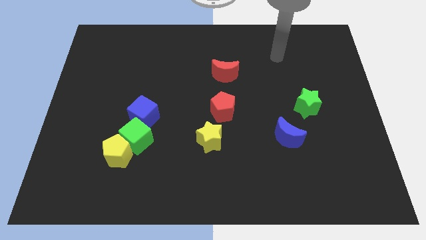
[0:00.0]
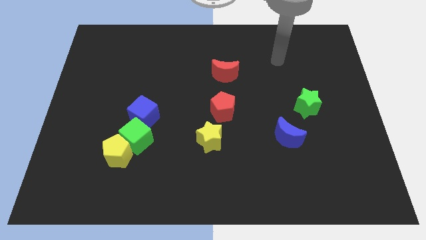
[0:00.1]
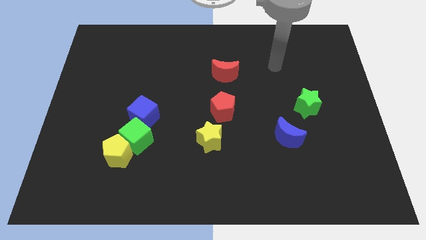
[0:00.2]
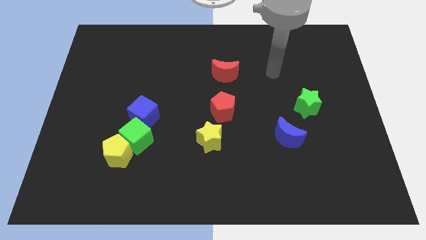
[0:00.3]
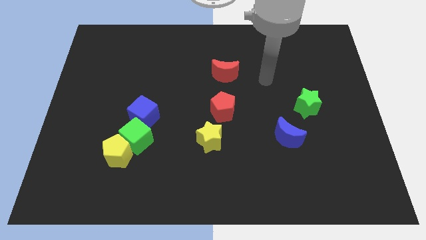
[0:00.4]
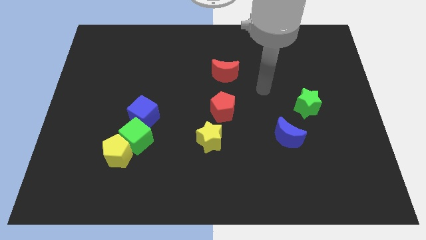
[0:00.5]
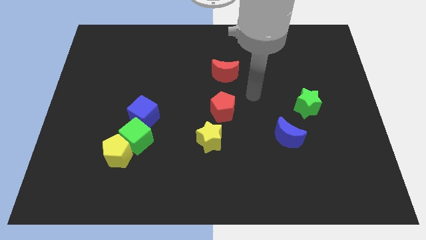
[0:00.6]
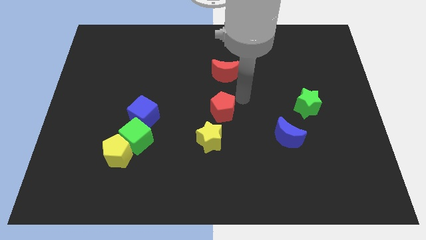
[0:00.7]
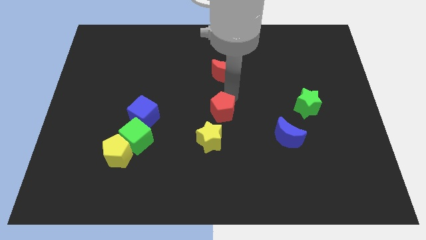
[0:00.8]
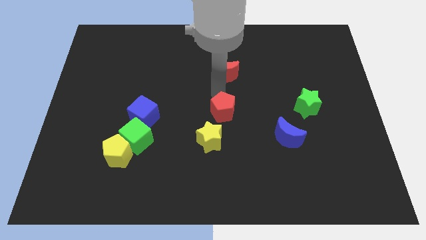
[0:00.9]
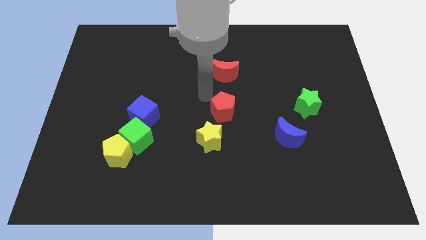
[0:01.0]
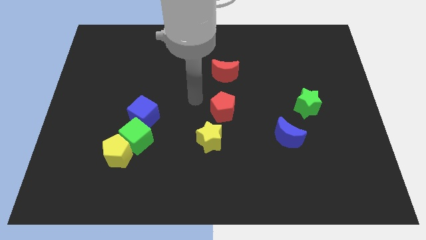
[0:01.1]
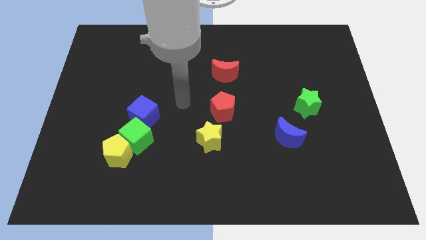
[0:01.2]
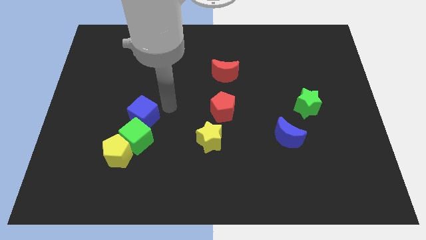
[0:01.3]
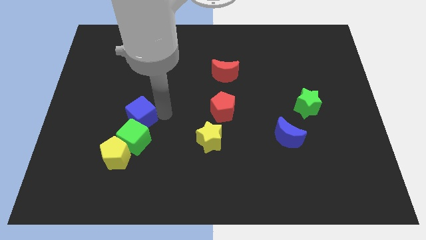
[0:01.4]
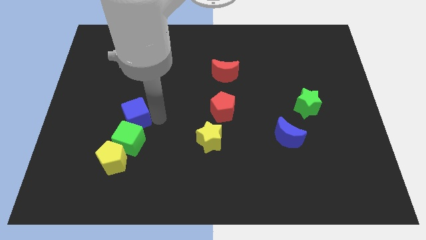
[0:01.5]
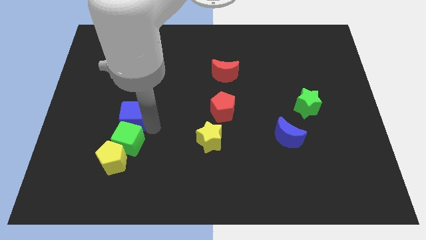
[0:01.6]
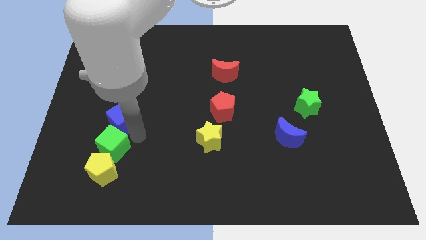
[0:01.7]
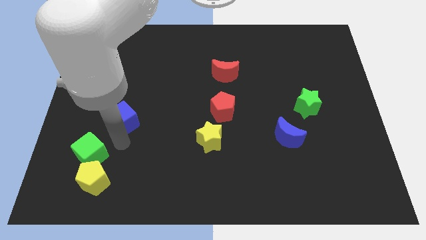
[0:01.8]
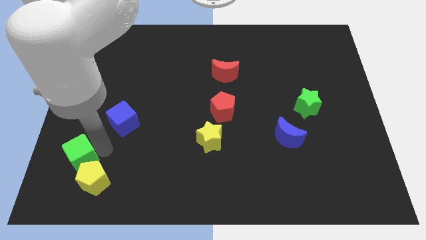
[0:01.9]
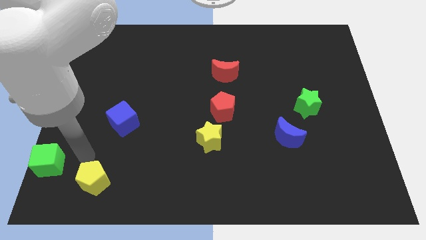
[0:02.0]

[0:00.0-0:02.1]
move the yellow pentagon away from the green cube

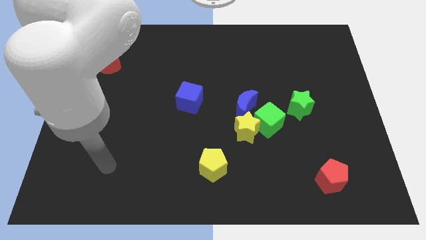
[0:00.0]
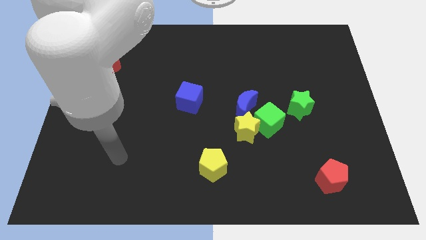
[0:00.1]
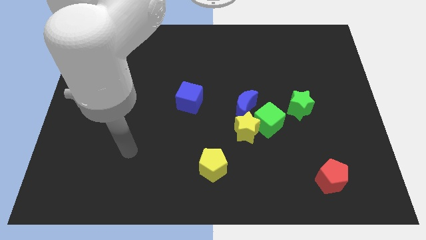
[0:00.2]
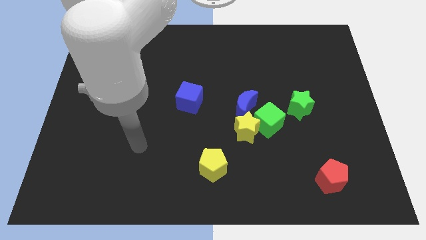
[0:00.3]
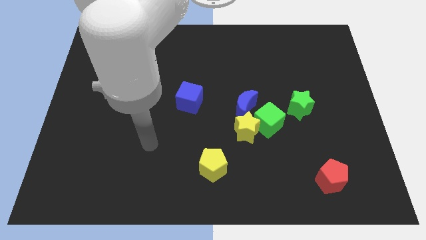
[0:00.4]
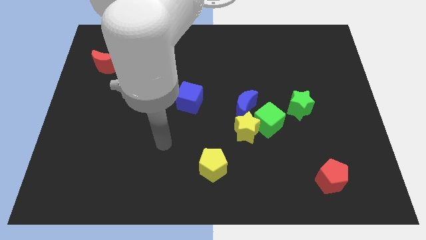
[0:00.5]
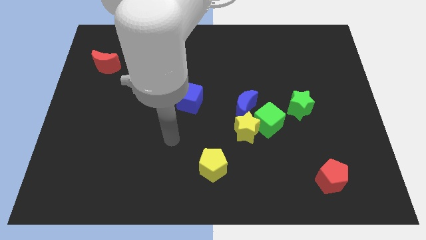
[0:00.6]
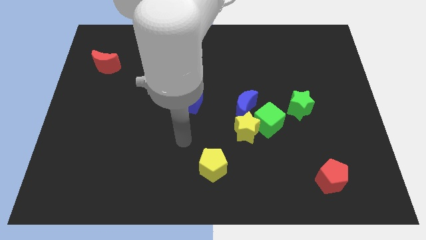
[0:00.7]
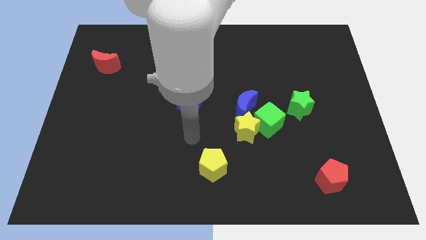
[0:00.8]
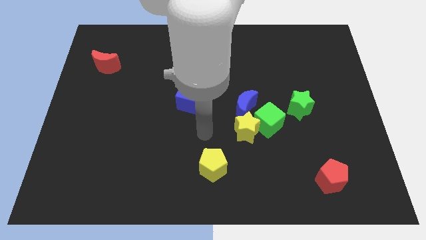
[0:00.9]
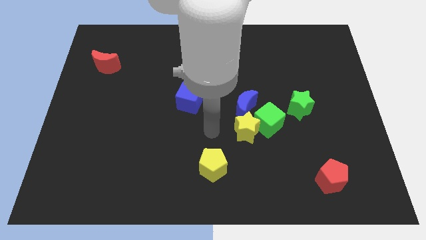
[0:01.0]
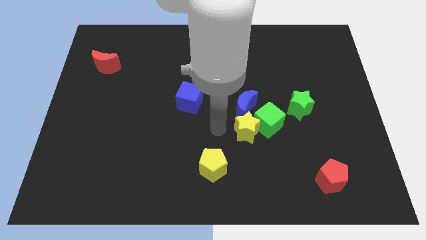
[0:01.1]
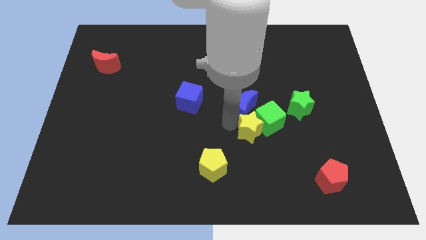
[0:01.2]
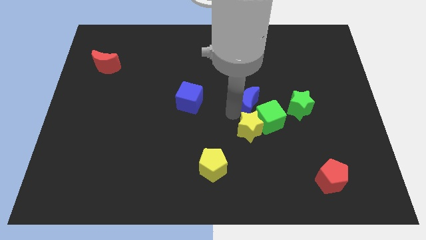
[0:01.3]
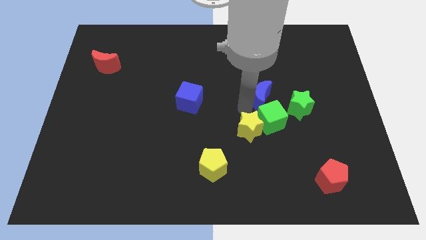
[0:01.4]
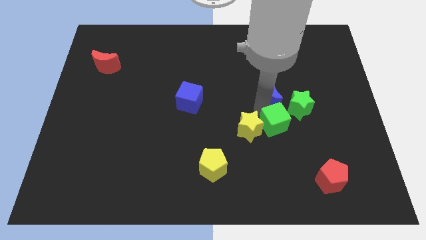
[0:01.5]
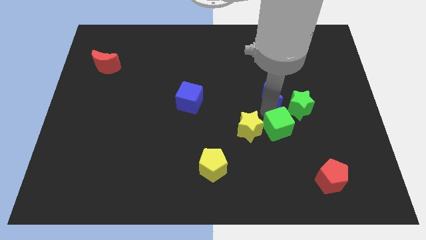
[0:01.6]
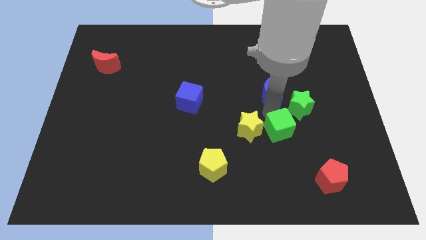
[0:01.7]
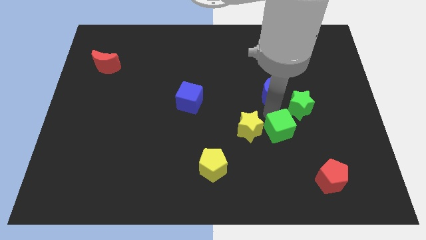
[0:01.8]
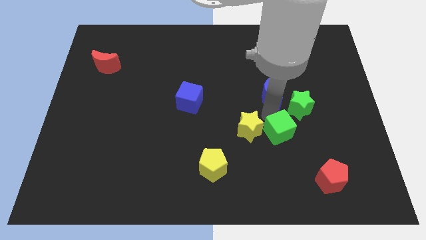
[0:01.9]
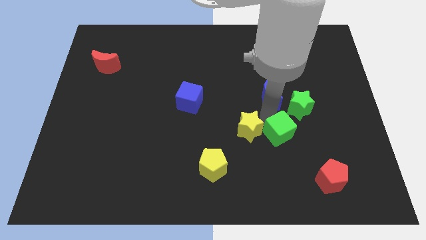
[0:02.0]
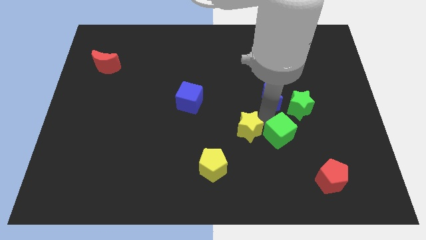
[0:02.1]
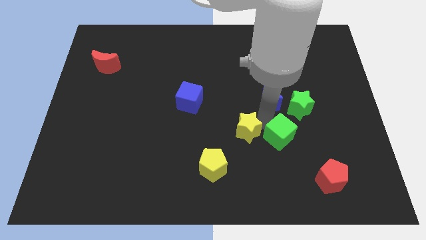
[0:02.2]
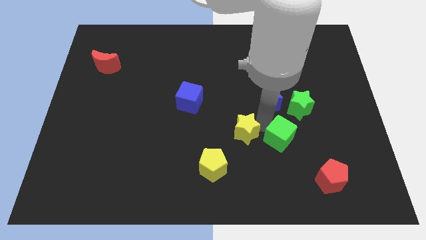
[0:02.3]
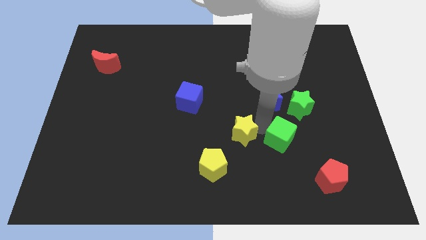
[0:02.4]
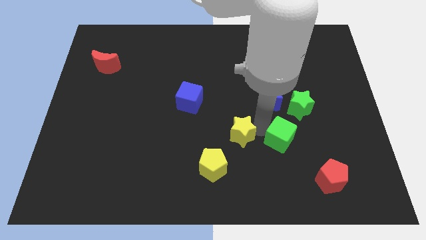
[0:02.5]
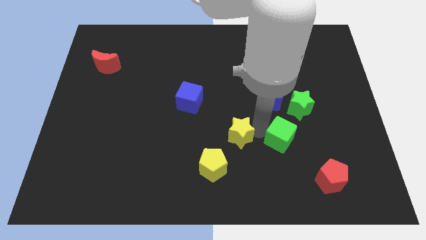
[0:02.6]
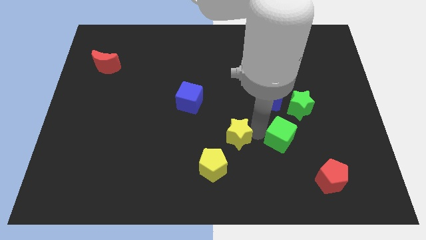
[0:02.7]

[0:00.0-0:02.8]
pull the yellow star apart from the green cube and blue moon

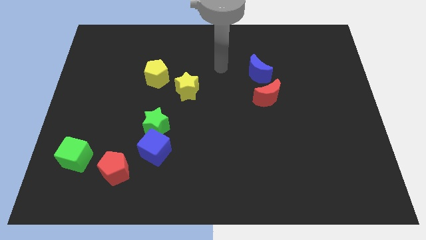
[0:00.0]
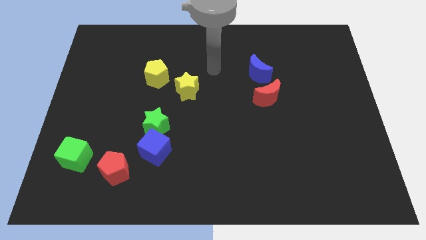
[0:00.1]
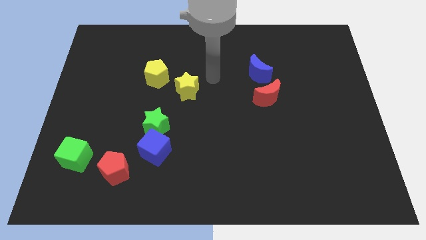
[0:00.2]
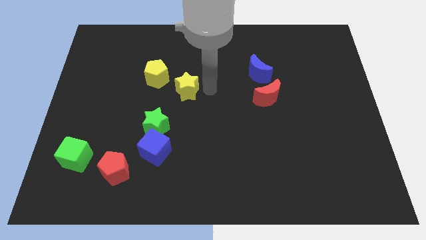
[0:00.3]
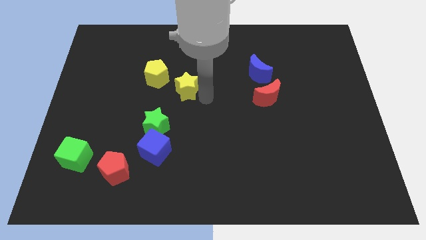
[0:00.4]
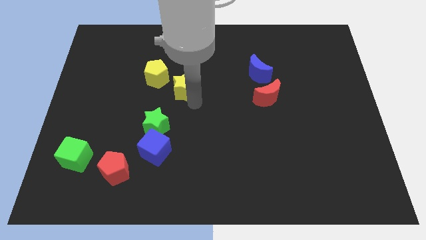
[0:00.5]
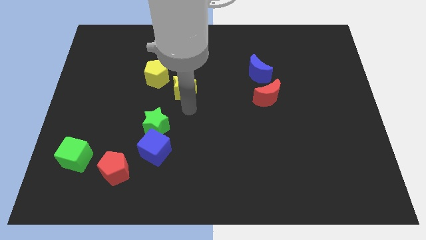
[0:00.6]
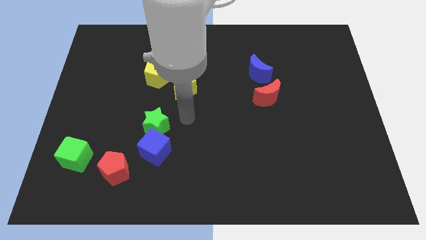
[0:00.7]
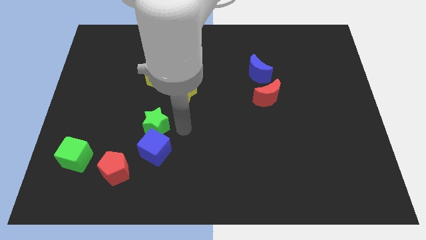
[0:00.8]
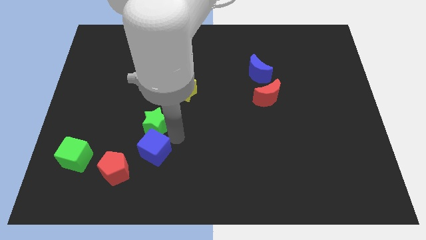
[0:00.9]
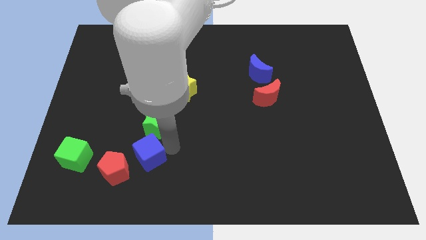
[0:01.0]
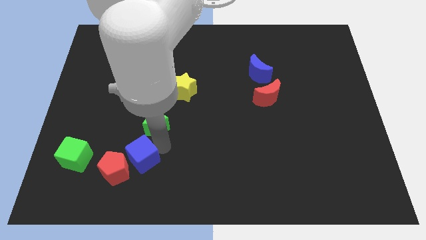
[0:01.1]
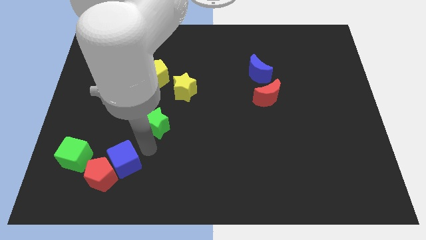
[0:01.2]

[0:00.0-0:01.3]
separate the green star from the blue cube

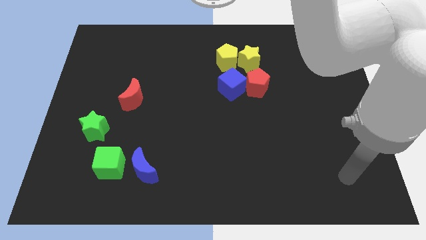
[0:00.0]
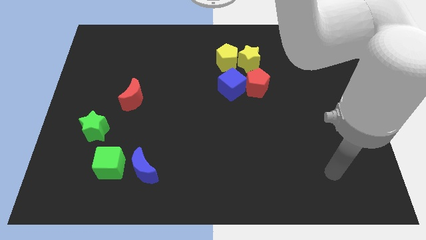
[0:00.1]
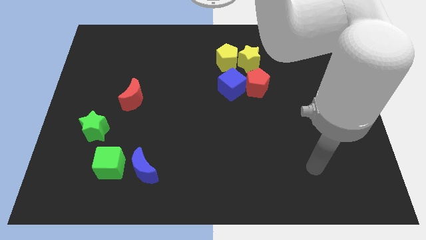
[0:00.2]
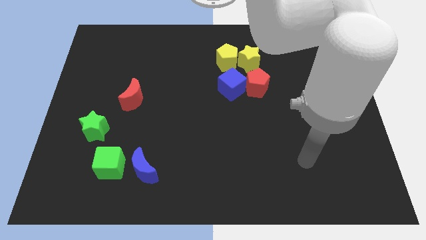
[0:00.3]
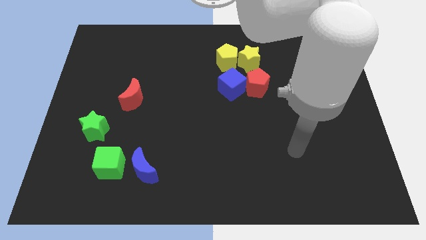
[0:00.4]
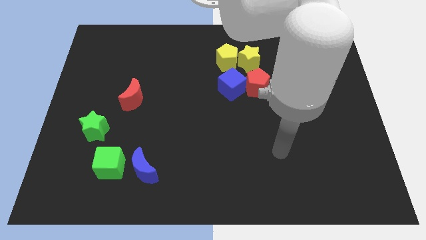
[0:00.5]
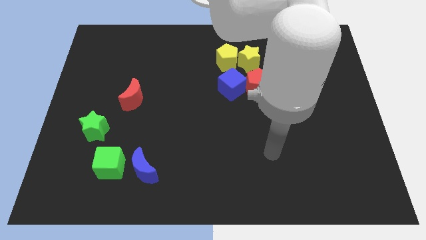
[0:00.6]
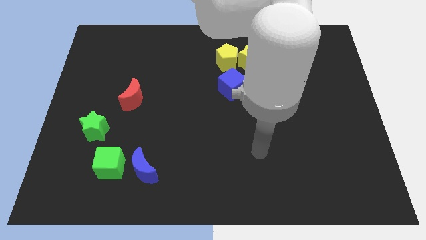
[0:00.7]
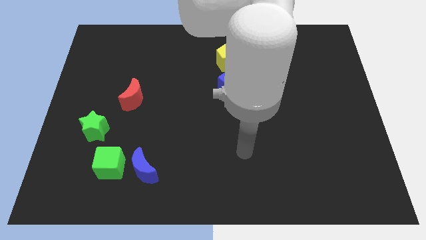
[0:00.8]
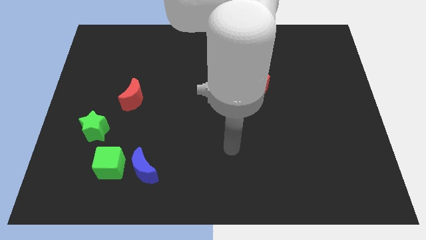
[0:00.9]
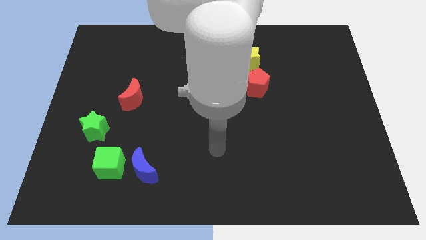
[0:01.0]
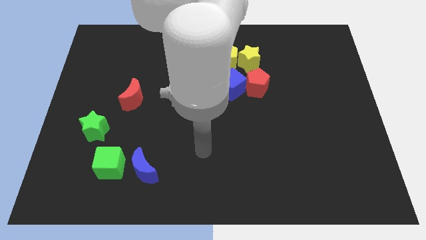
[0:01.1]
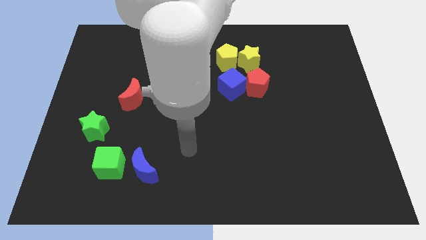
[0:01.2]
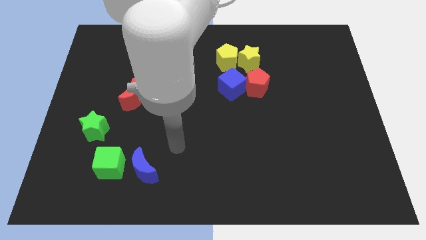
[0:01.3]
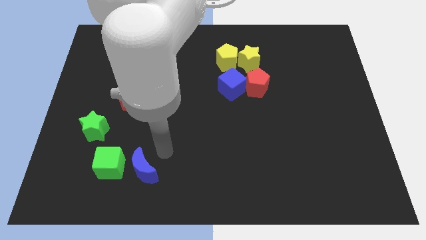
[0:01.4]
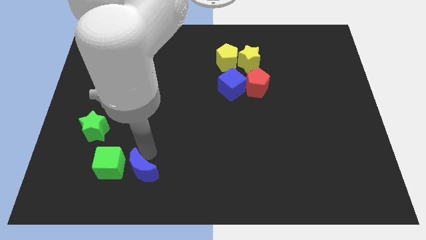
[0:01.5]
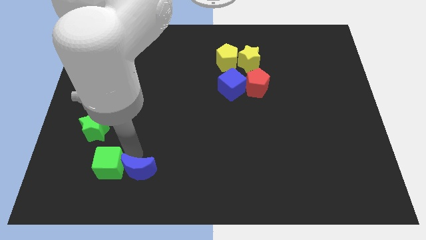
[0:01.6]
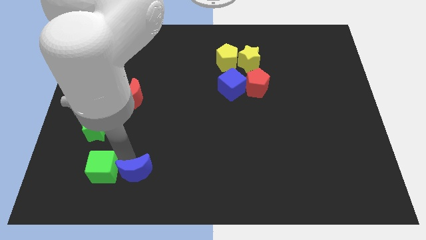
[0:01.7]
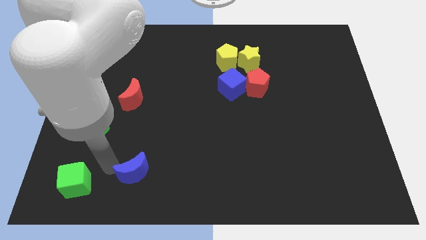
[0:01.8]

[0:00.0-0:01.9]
separate the blue moon from the green cube

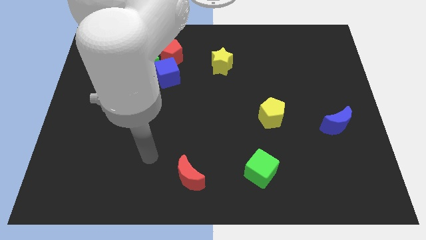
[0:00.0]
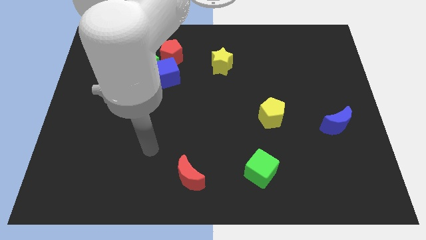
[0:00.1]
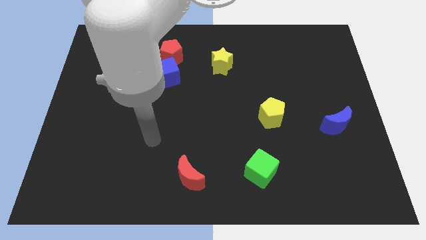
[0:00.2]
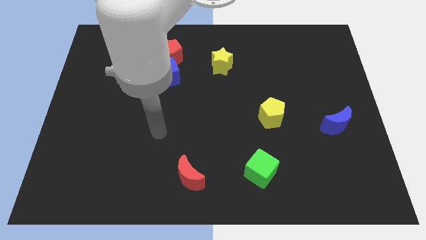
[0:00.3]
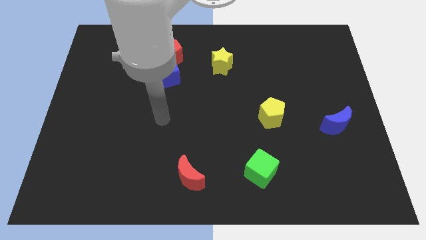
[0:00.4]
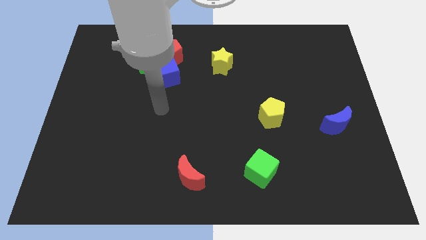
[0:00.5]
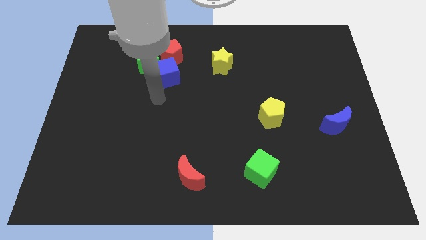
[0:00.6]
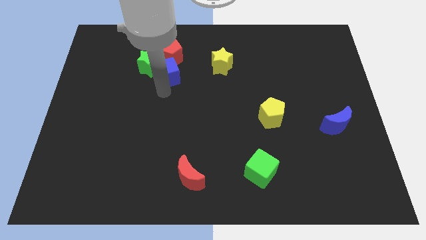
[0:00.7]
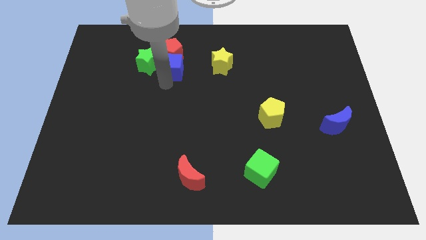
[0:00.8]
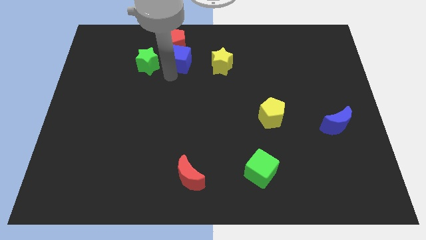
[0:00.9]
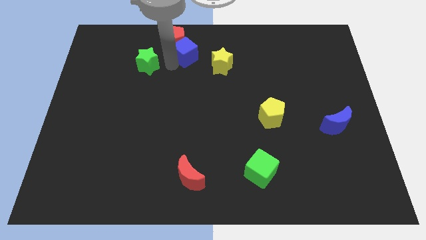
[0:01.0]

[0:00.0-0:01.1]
pull the green star apart from the blue cube and red pentagon
